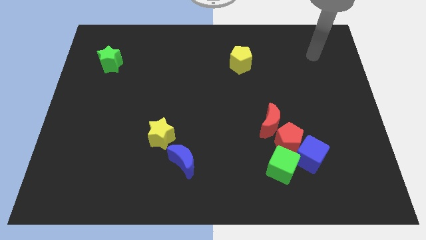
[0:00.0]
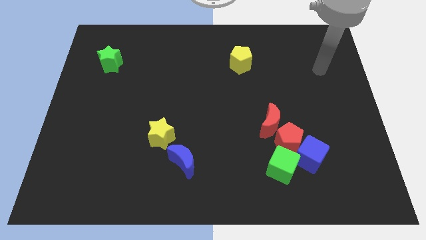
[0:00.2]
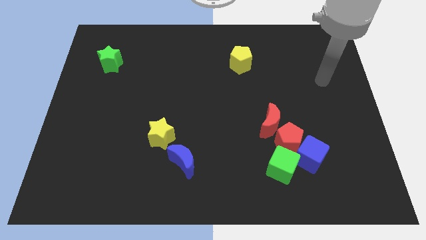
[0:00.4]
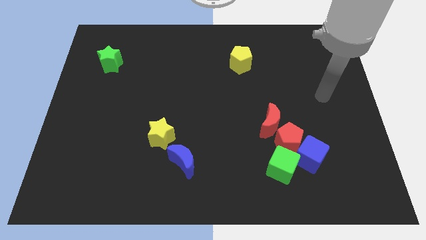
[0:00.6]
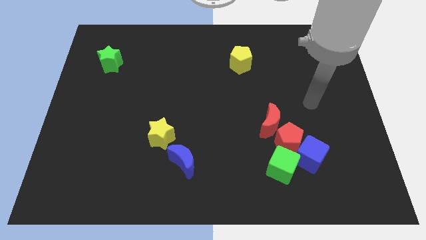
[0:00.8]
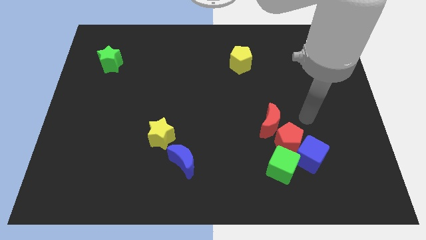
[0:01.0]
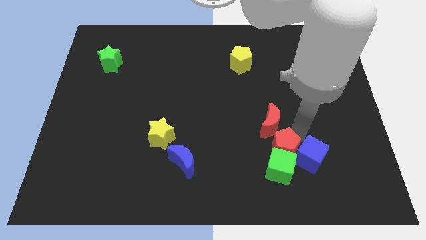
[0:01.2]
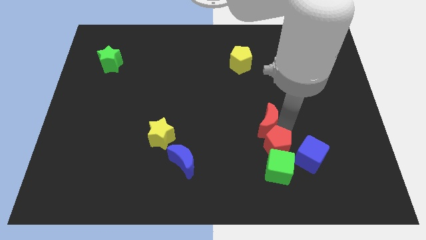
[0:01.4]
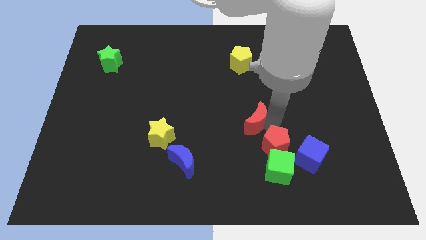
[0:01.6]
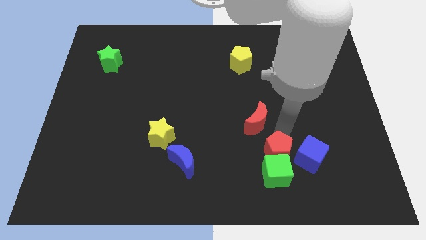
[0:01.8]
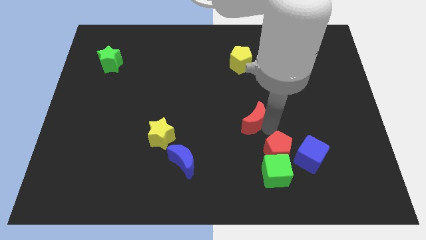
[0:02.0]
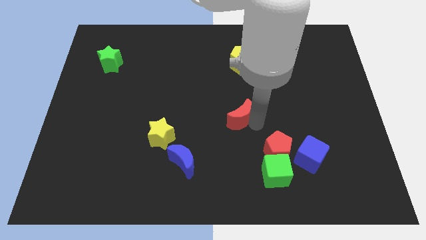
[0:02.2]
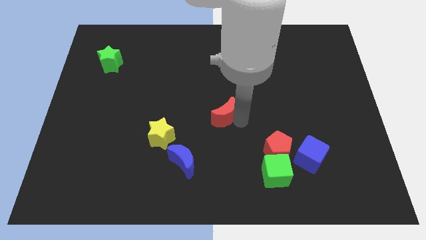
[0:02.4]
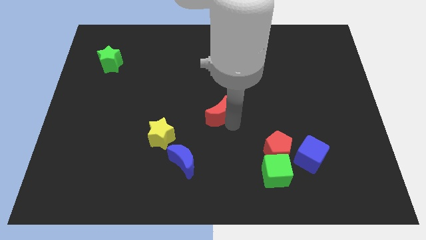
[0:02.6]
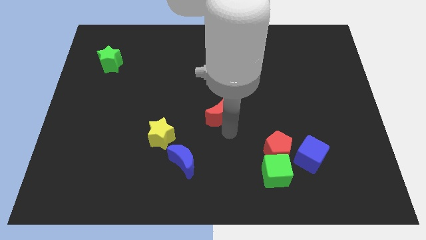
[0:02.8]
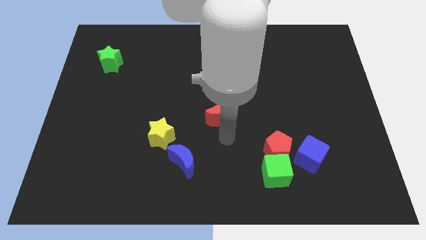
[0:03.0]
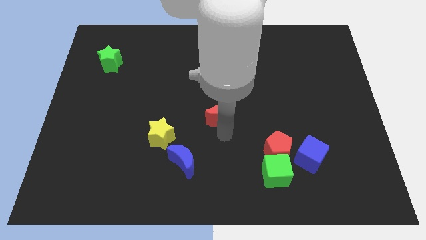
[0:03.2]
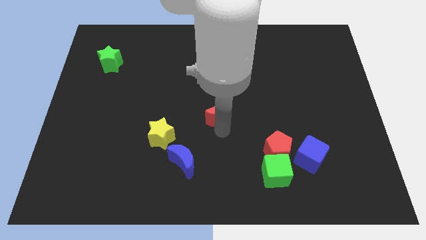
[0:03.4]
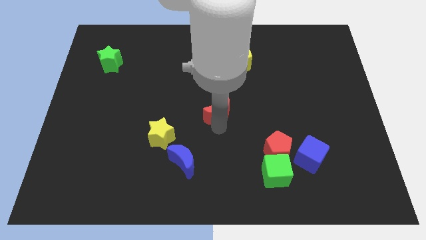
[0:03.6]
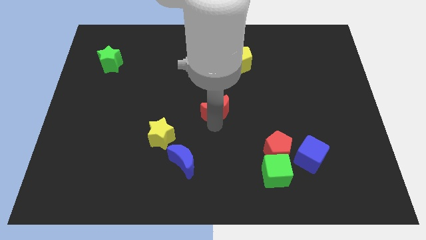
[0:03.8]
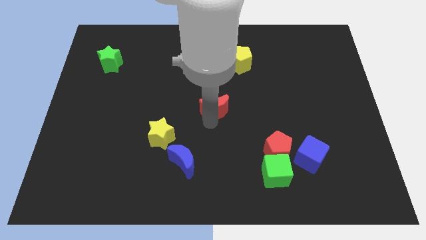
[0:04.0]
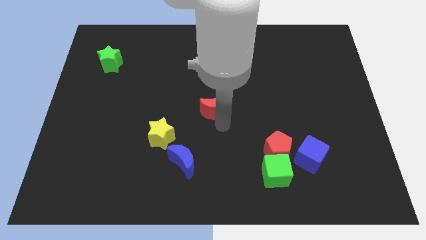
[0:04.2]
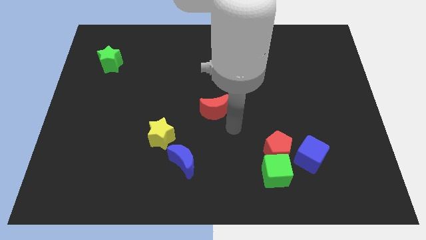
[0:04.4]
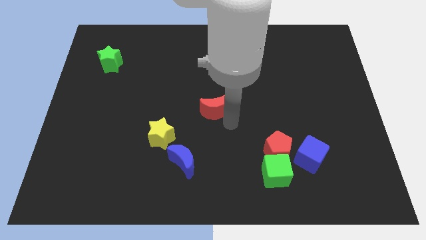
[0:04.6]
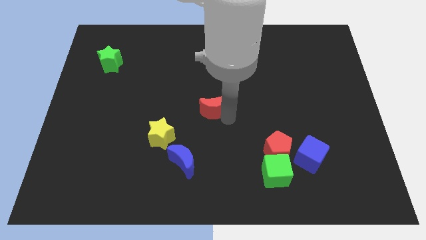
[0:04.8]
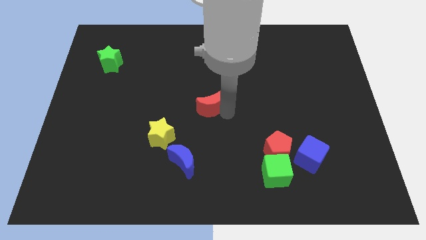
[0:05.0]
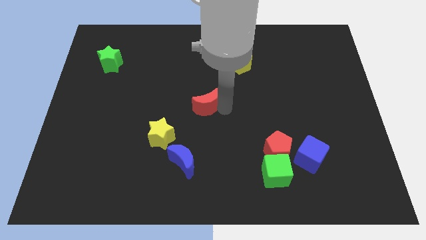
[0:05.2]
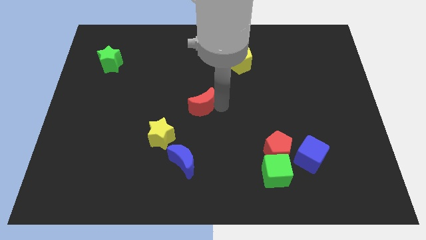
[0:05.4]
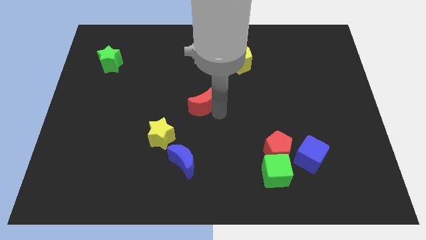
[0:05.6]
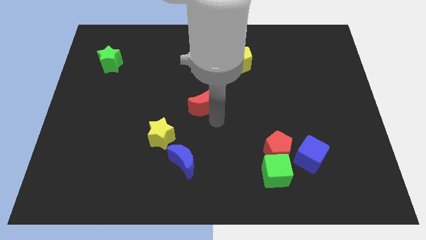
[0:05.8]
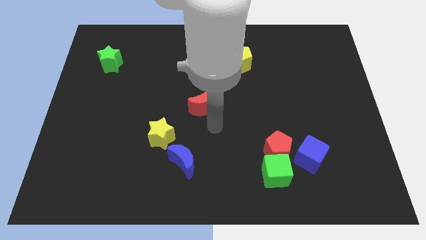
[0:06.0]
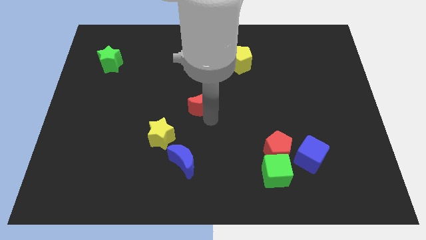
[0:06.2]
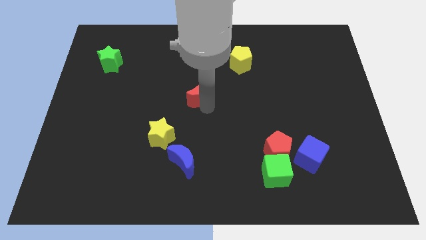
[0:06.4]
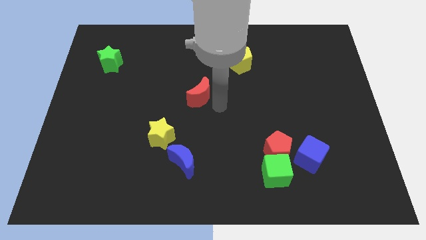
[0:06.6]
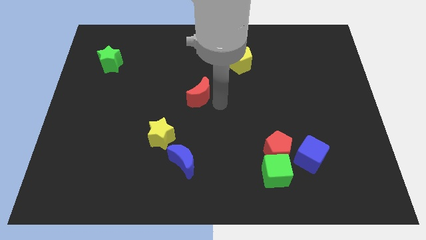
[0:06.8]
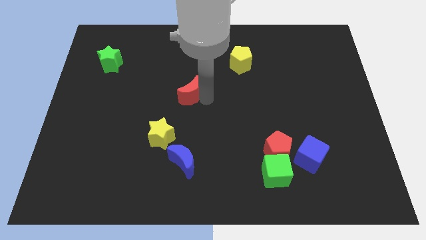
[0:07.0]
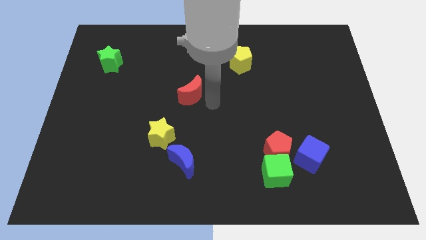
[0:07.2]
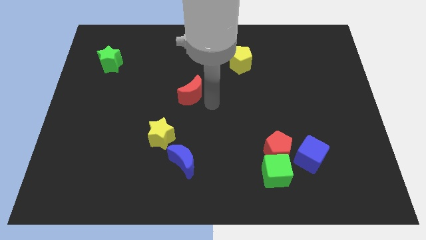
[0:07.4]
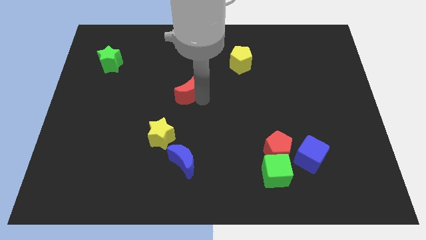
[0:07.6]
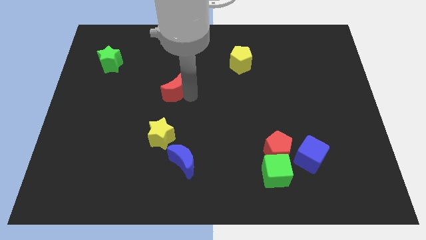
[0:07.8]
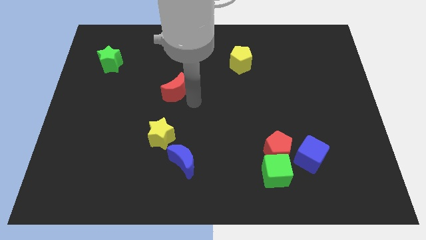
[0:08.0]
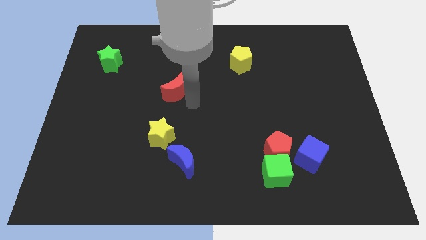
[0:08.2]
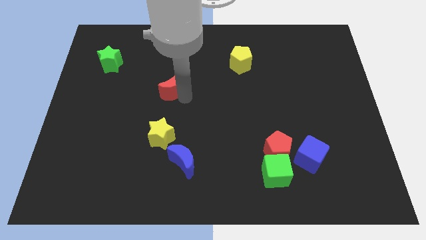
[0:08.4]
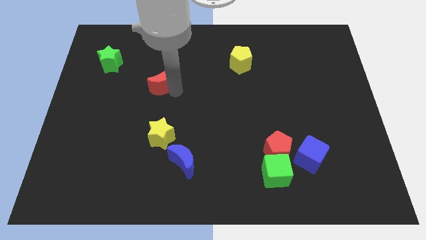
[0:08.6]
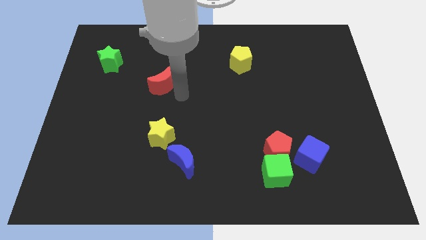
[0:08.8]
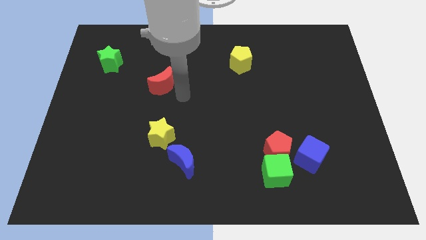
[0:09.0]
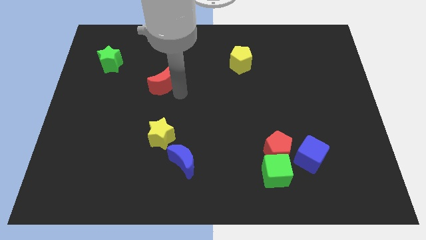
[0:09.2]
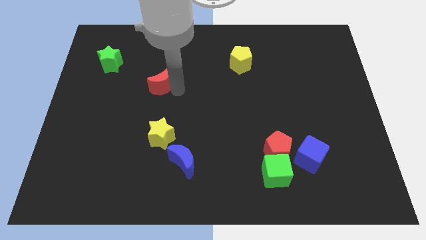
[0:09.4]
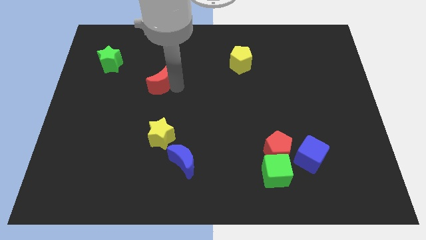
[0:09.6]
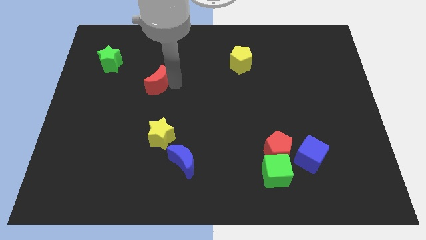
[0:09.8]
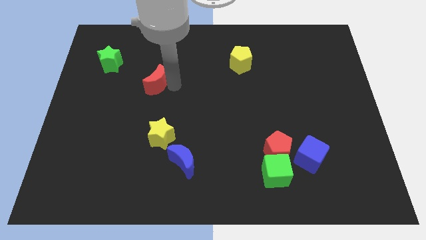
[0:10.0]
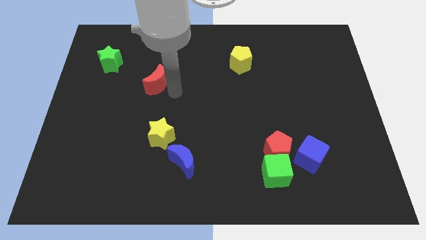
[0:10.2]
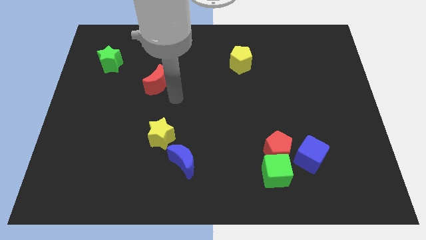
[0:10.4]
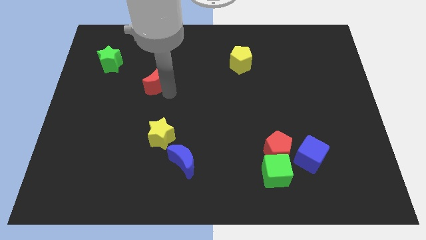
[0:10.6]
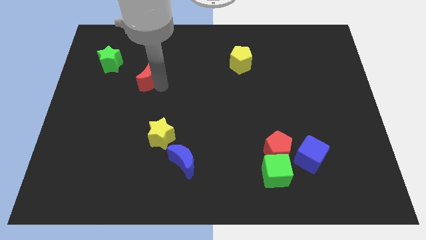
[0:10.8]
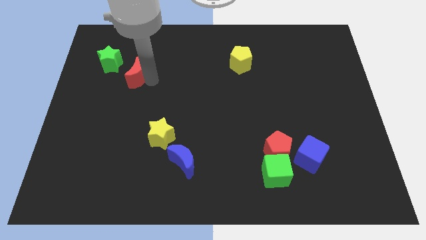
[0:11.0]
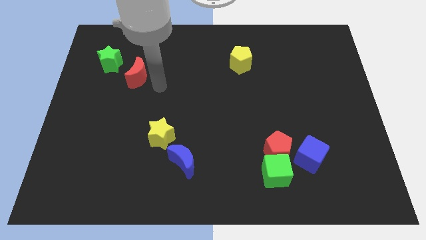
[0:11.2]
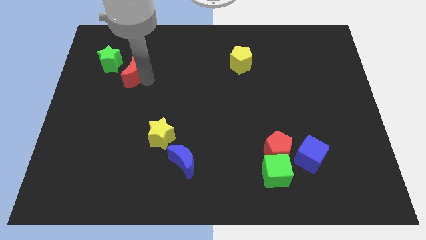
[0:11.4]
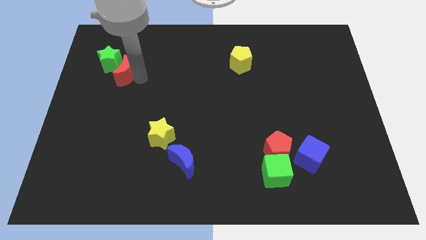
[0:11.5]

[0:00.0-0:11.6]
put the red moon close to the green star

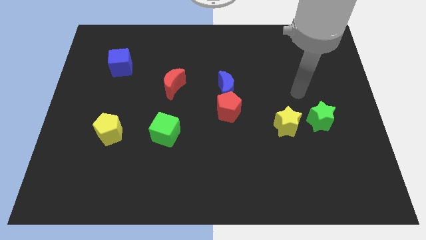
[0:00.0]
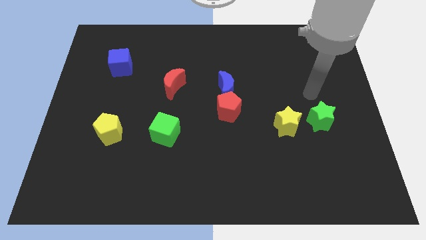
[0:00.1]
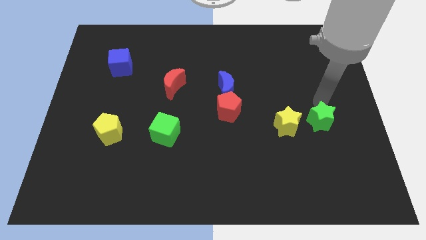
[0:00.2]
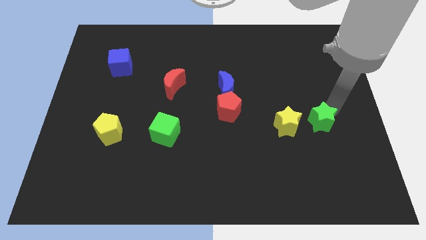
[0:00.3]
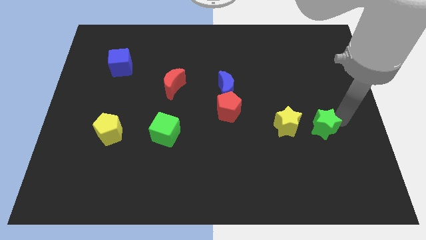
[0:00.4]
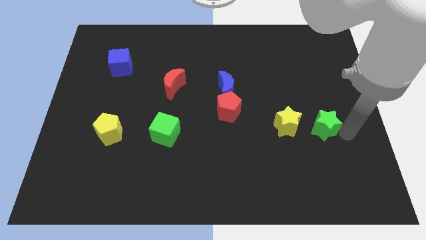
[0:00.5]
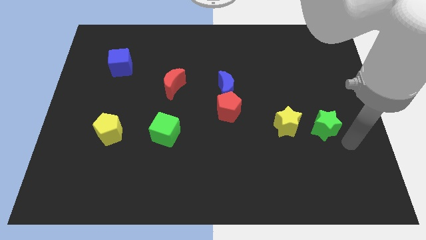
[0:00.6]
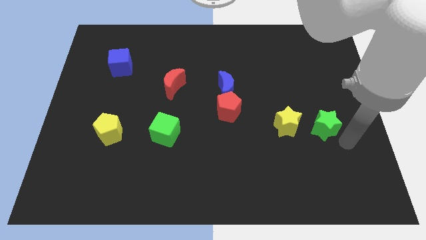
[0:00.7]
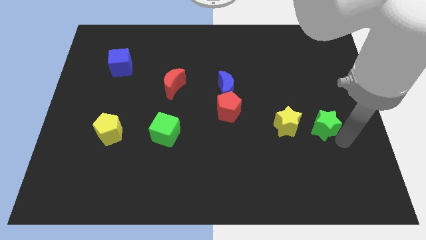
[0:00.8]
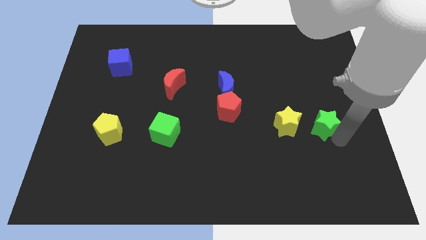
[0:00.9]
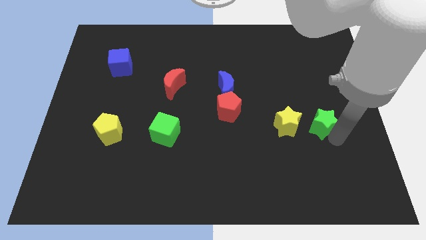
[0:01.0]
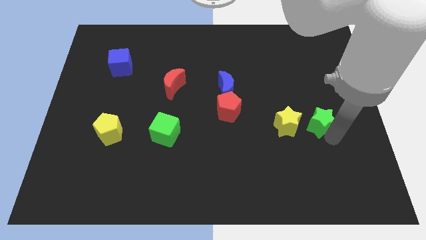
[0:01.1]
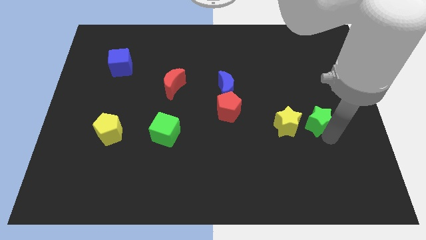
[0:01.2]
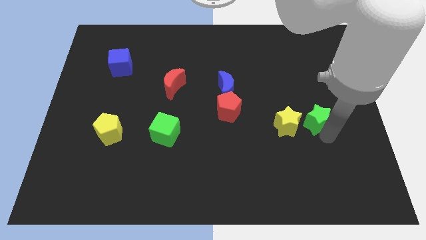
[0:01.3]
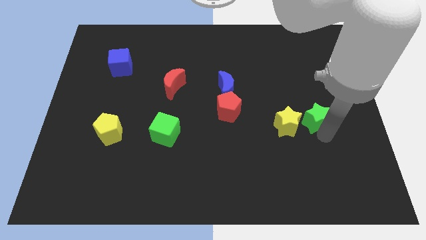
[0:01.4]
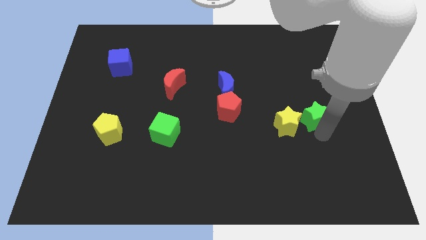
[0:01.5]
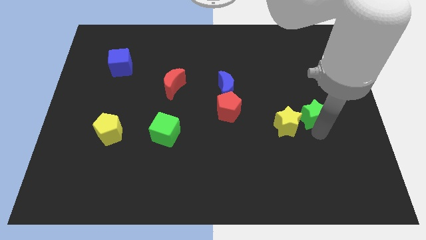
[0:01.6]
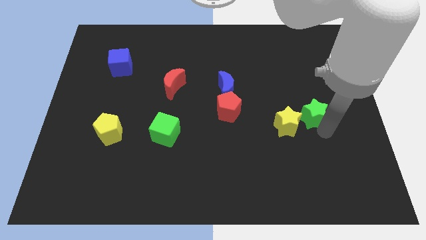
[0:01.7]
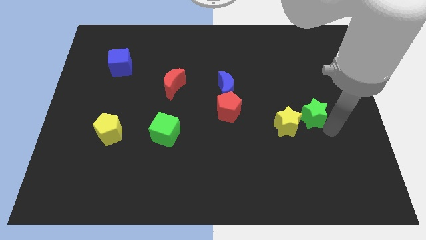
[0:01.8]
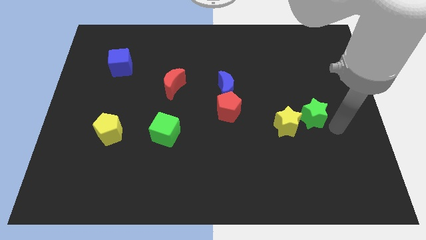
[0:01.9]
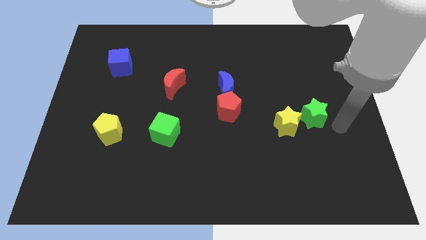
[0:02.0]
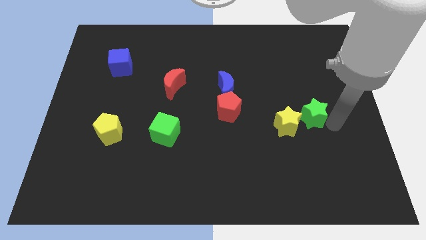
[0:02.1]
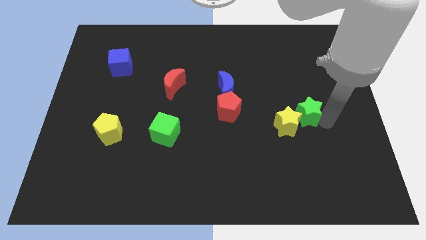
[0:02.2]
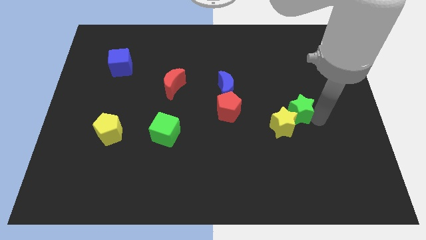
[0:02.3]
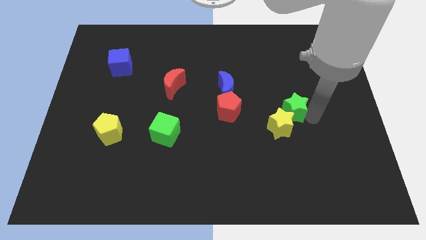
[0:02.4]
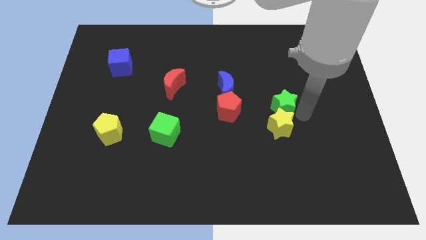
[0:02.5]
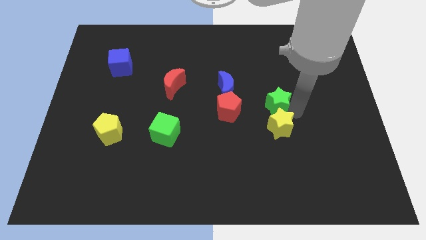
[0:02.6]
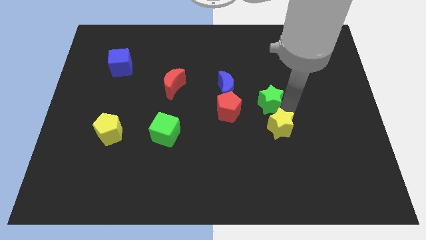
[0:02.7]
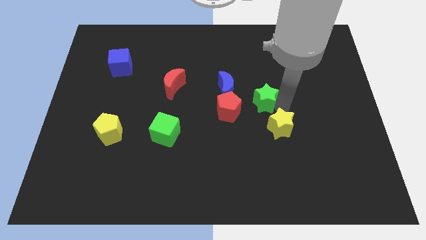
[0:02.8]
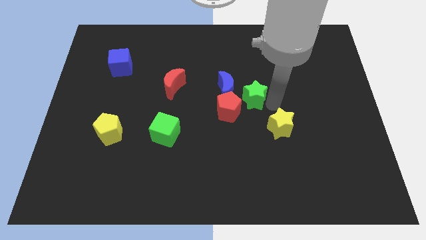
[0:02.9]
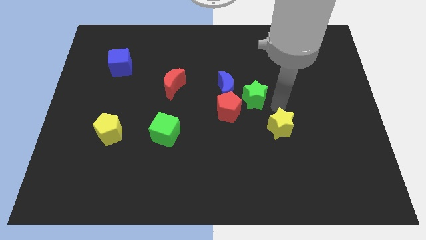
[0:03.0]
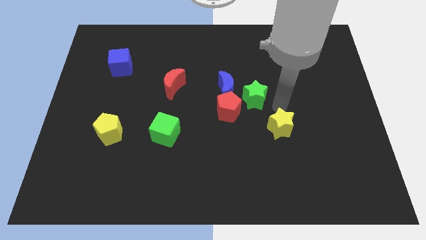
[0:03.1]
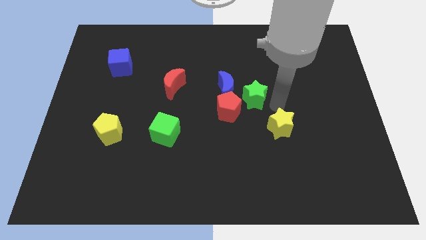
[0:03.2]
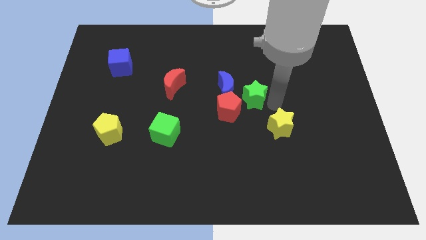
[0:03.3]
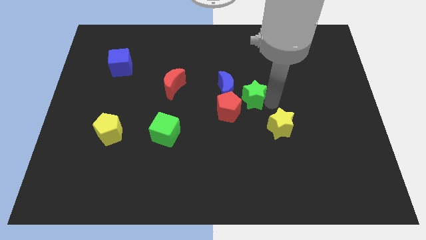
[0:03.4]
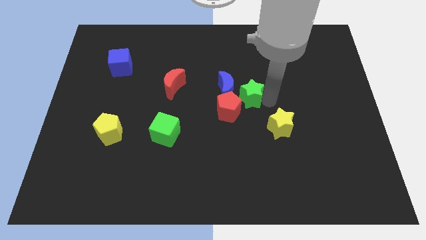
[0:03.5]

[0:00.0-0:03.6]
slide the green star next to the blue moon
